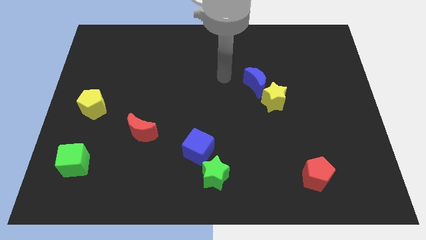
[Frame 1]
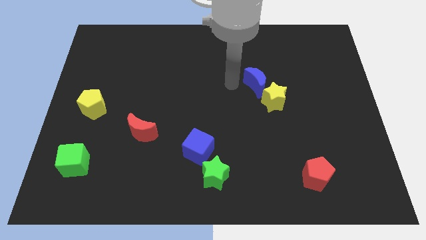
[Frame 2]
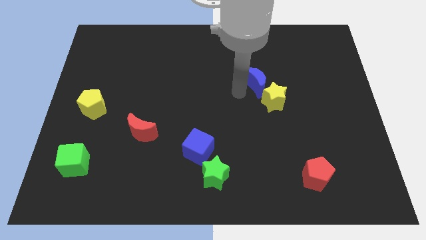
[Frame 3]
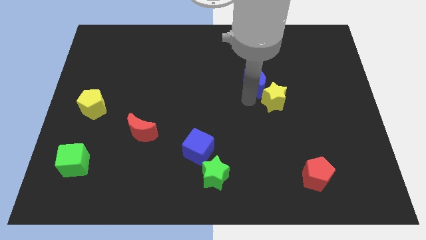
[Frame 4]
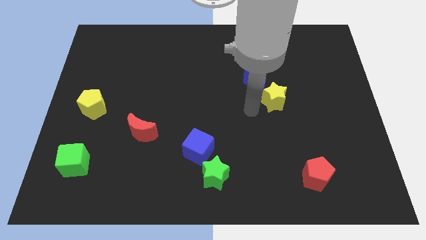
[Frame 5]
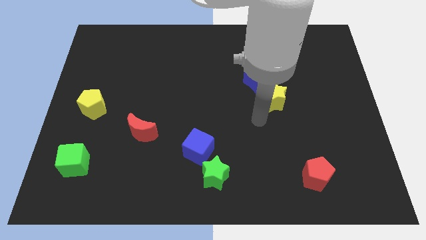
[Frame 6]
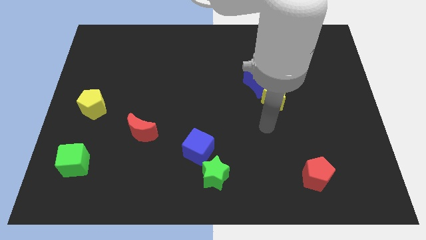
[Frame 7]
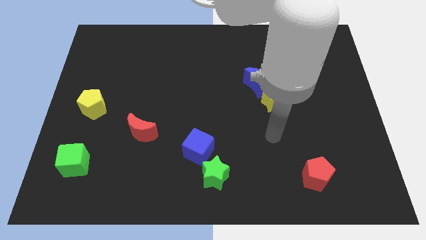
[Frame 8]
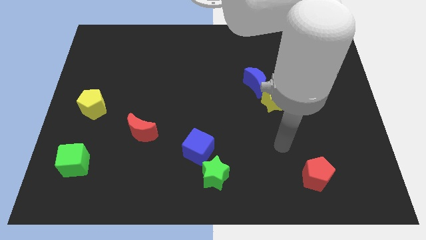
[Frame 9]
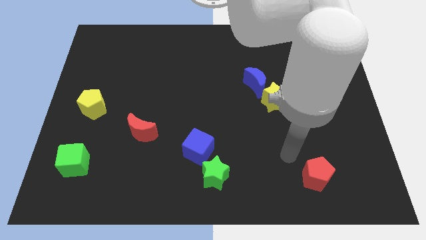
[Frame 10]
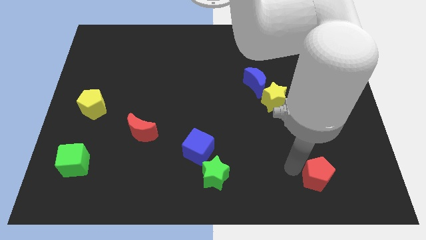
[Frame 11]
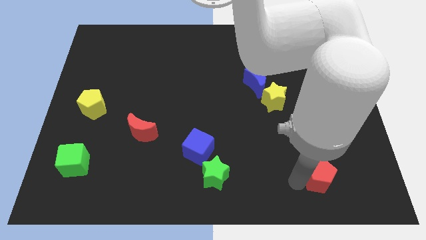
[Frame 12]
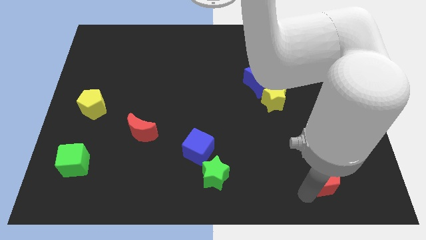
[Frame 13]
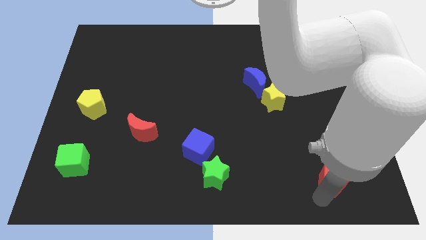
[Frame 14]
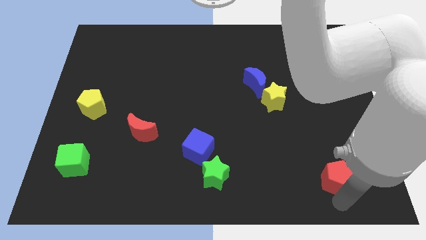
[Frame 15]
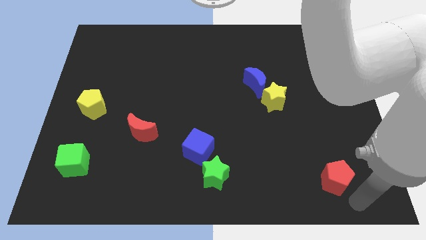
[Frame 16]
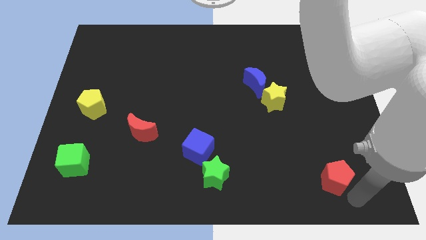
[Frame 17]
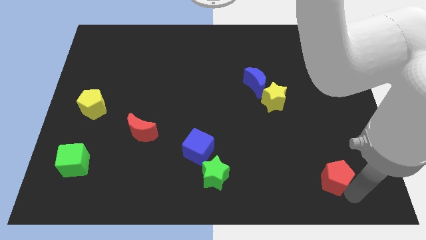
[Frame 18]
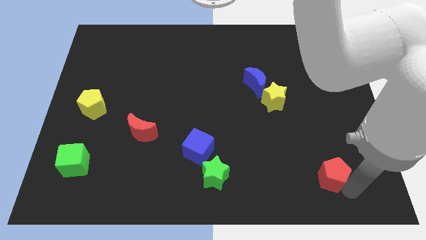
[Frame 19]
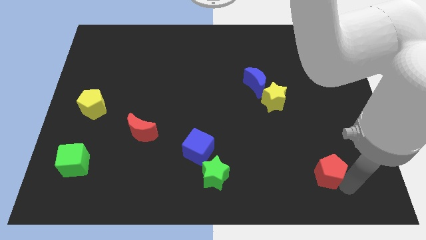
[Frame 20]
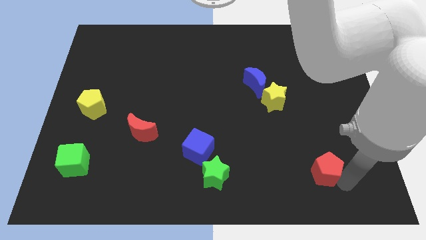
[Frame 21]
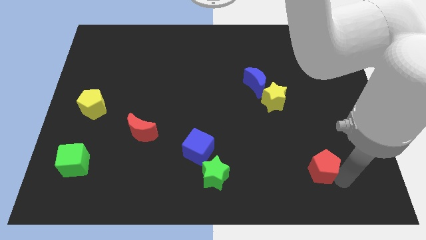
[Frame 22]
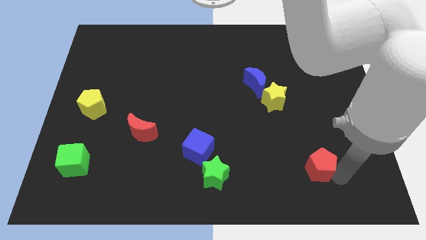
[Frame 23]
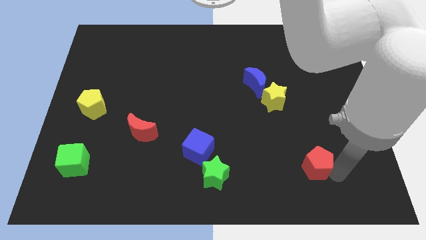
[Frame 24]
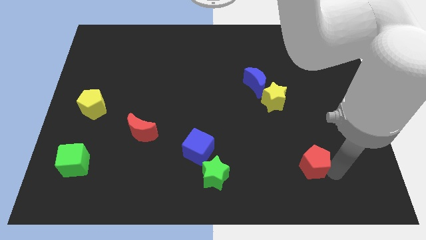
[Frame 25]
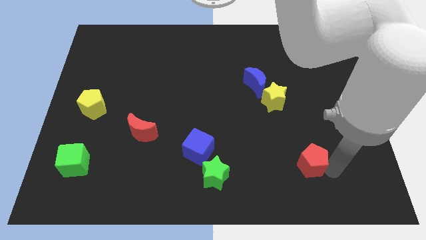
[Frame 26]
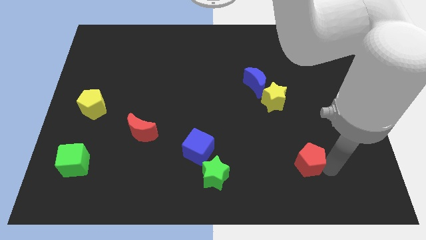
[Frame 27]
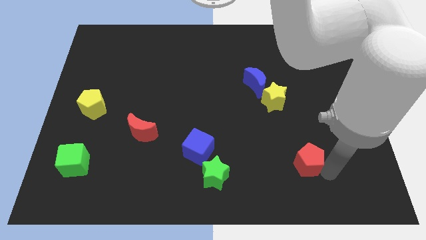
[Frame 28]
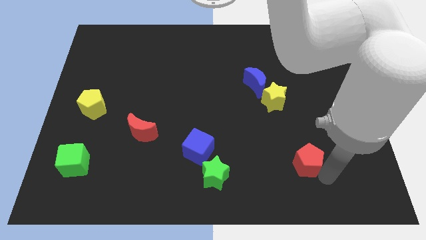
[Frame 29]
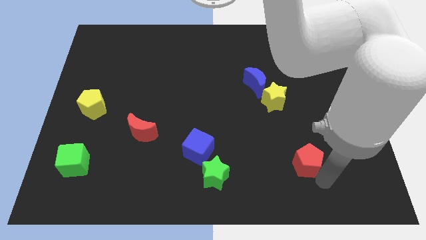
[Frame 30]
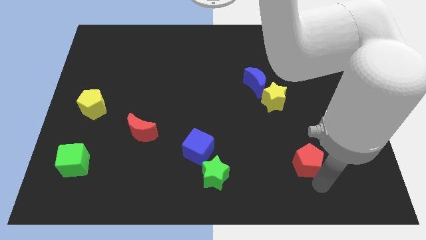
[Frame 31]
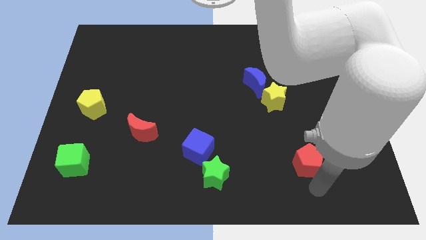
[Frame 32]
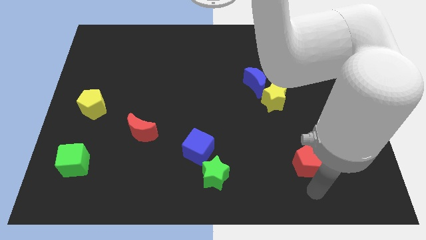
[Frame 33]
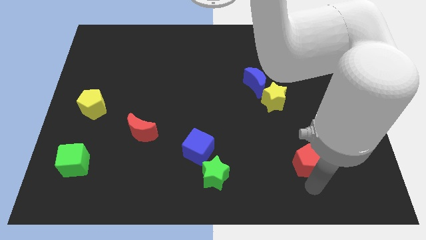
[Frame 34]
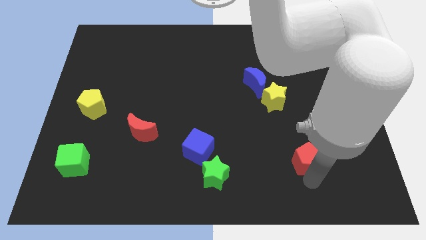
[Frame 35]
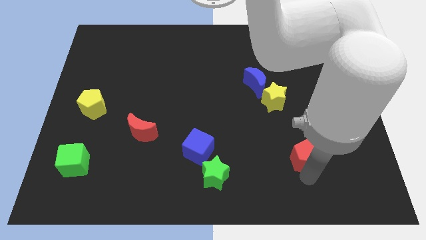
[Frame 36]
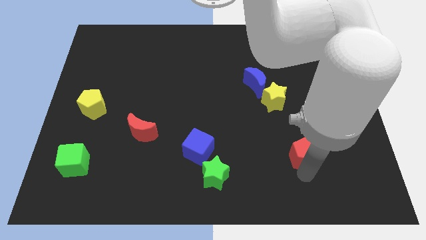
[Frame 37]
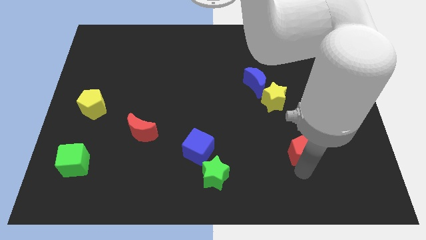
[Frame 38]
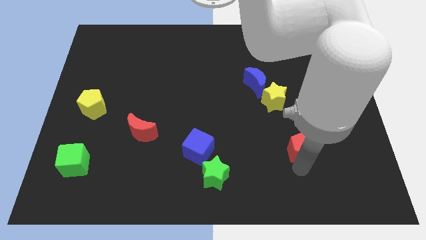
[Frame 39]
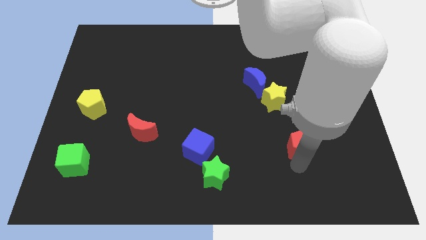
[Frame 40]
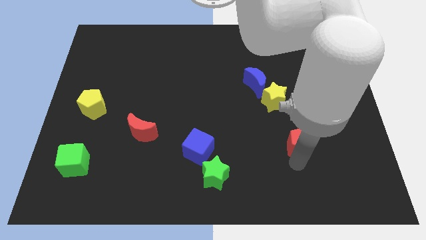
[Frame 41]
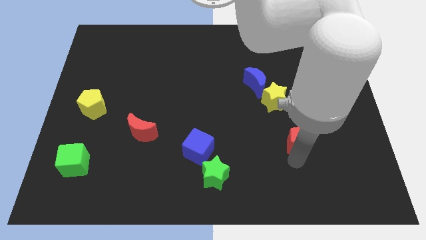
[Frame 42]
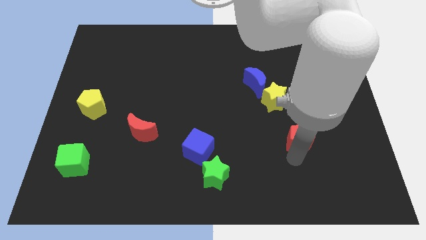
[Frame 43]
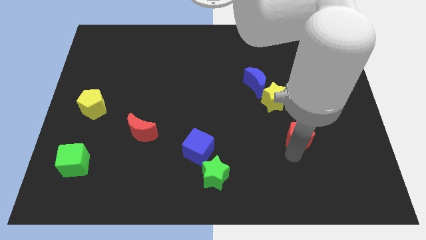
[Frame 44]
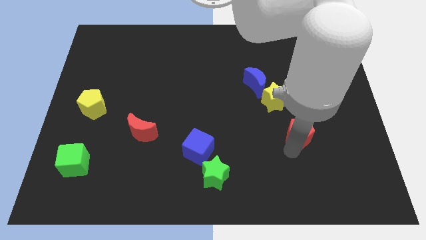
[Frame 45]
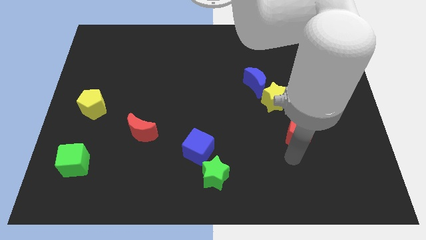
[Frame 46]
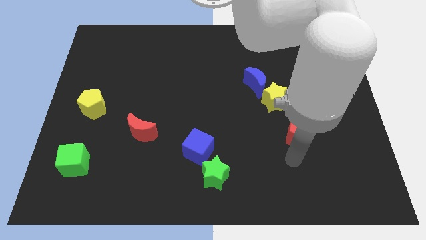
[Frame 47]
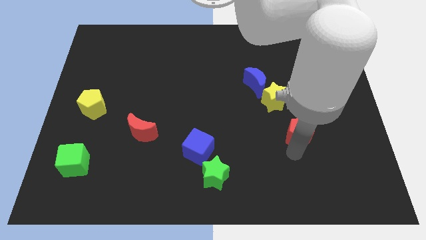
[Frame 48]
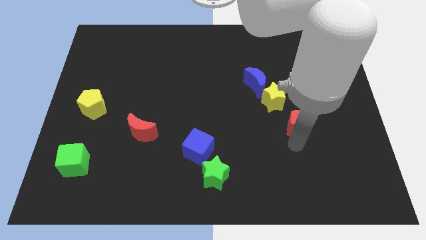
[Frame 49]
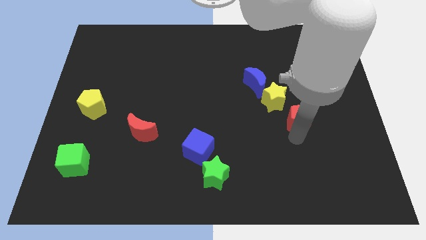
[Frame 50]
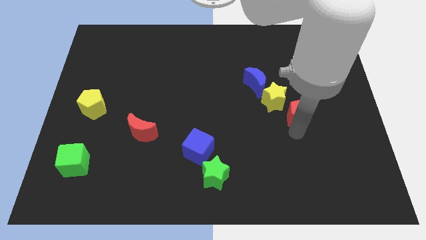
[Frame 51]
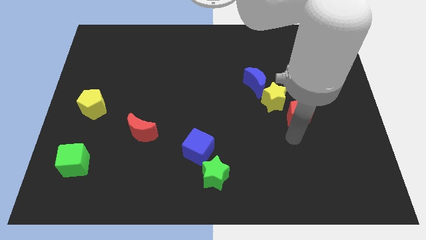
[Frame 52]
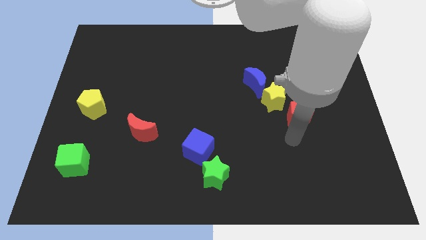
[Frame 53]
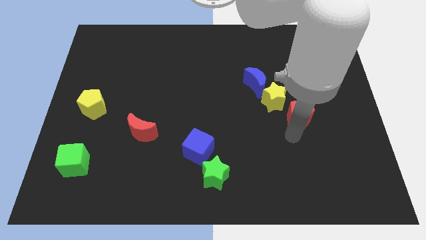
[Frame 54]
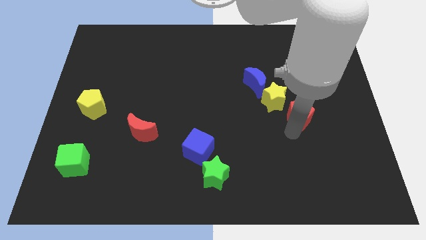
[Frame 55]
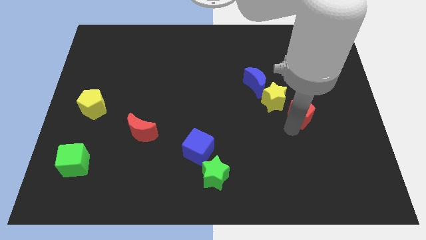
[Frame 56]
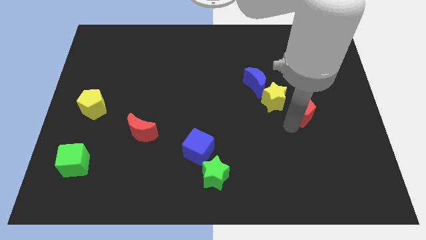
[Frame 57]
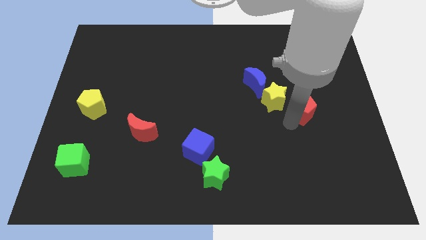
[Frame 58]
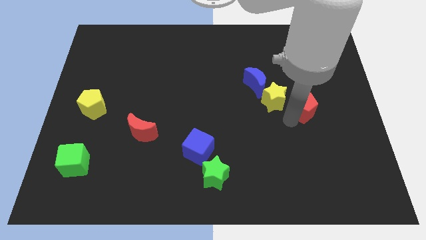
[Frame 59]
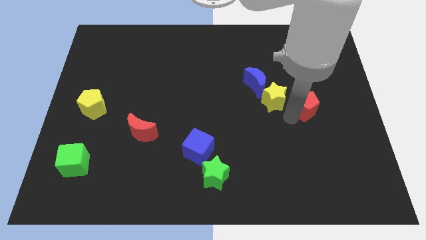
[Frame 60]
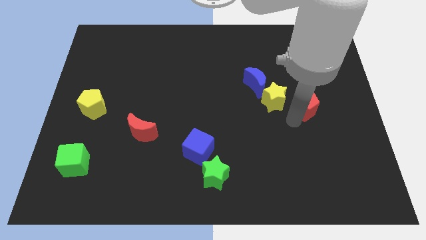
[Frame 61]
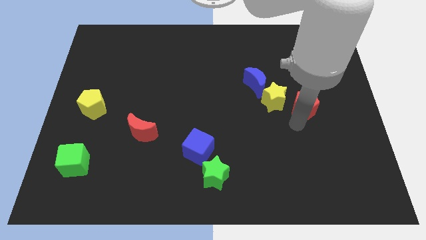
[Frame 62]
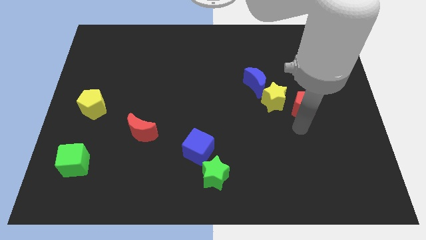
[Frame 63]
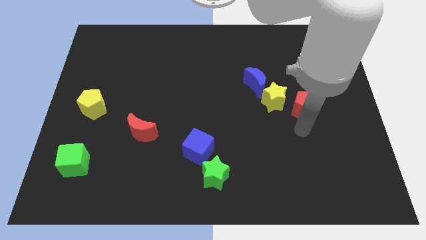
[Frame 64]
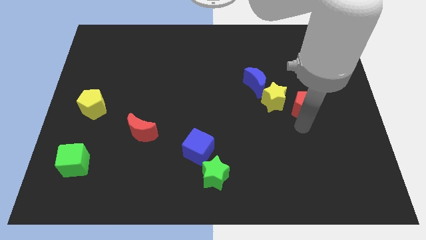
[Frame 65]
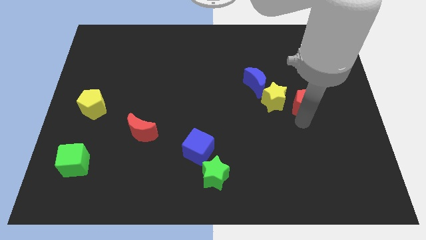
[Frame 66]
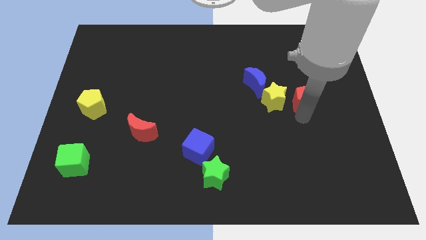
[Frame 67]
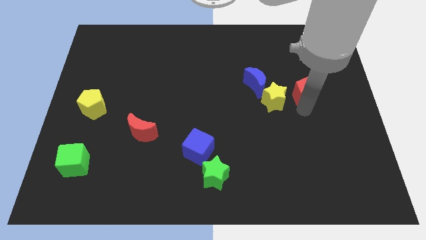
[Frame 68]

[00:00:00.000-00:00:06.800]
push the red pentagon up

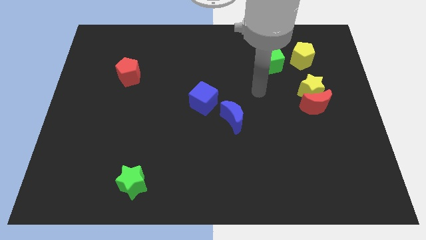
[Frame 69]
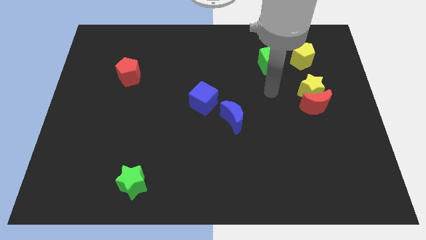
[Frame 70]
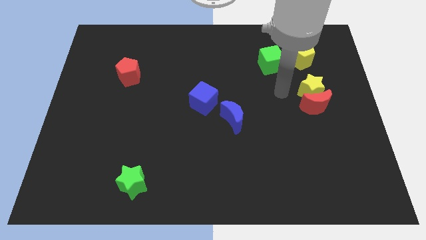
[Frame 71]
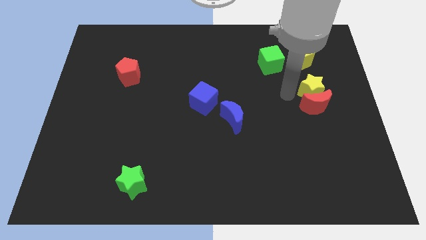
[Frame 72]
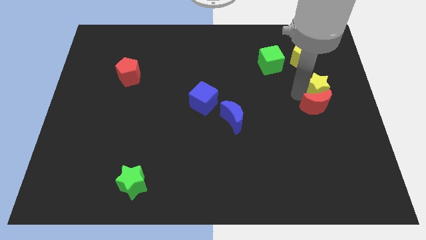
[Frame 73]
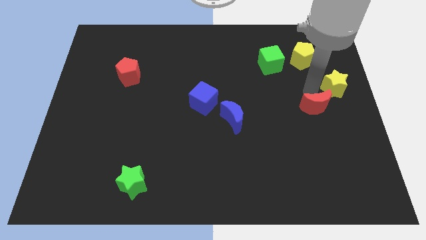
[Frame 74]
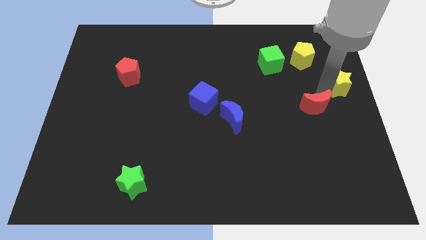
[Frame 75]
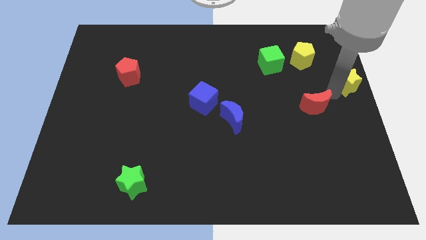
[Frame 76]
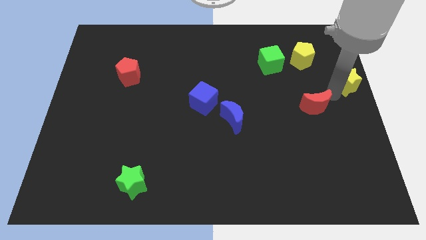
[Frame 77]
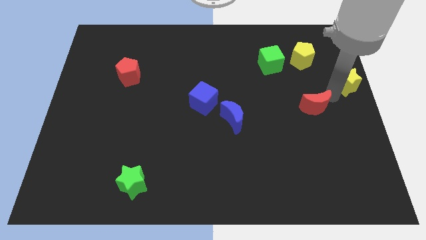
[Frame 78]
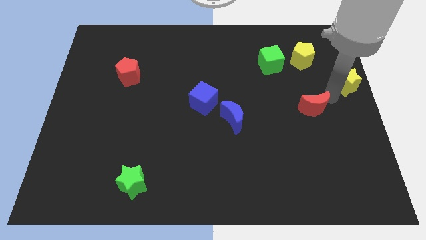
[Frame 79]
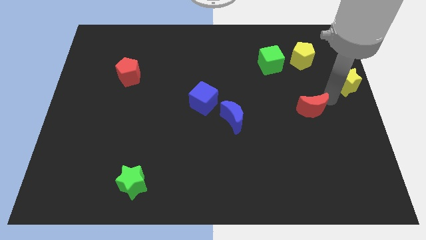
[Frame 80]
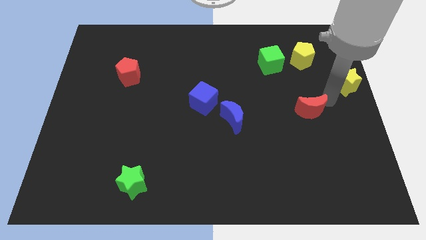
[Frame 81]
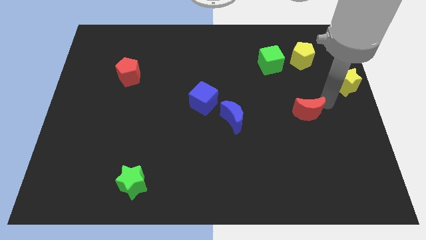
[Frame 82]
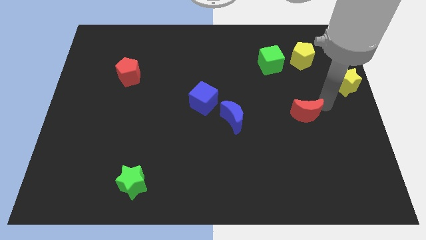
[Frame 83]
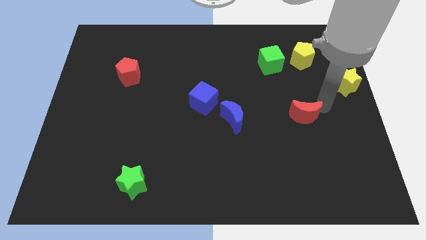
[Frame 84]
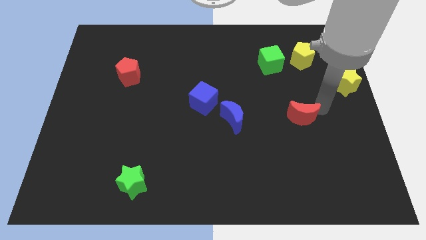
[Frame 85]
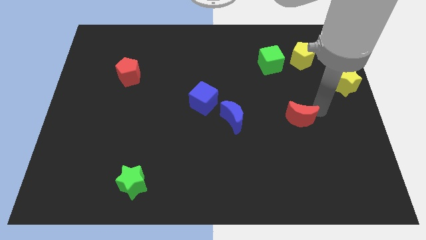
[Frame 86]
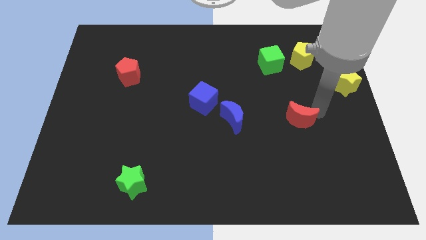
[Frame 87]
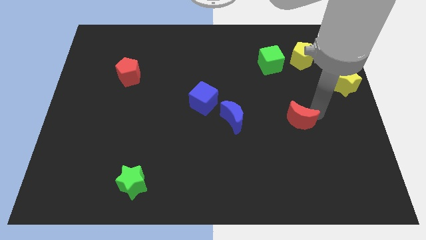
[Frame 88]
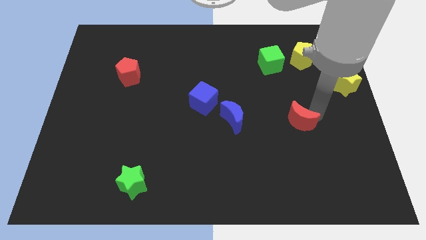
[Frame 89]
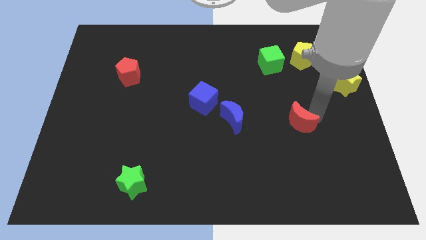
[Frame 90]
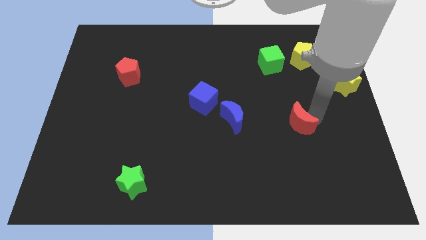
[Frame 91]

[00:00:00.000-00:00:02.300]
move the red moon down and left diagonally slightly
